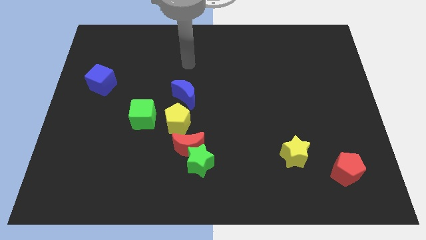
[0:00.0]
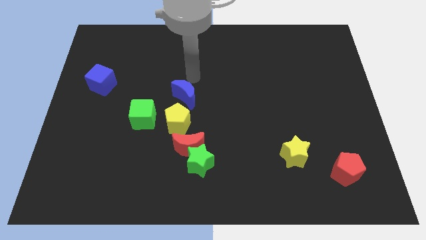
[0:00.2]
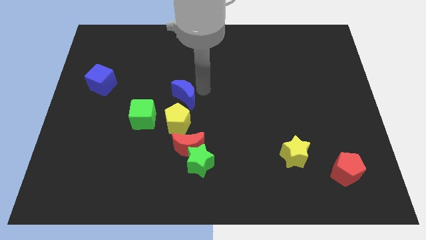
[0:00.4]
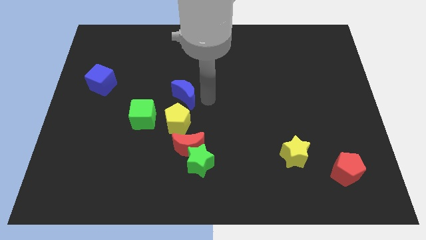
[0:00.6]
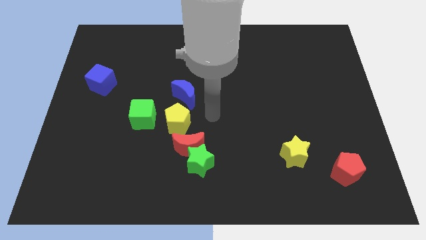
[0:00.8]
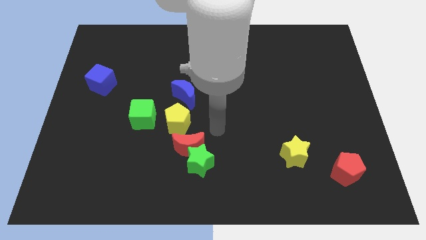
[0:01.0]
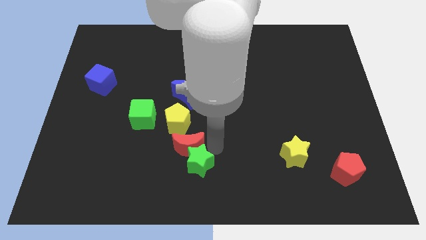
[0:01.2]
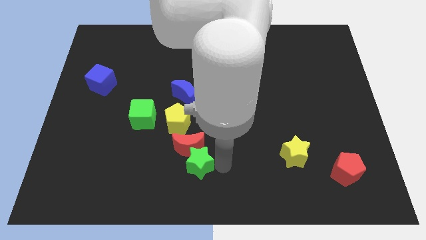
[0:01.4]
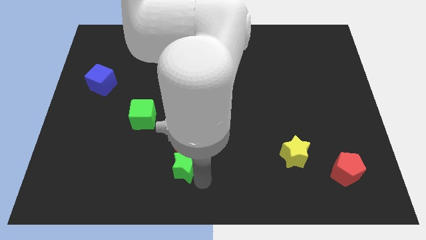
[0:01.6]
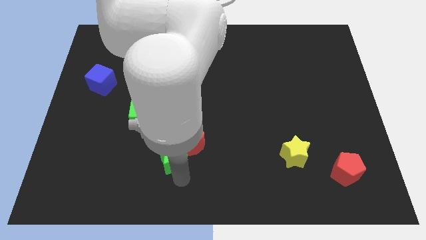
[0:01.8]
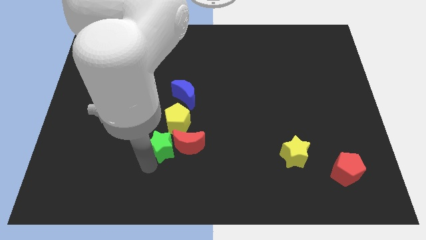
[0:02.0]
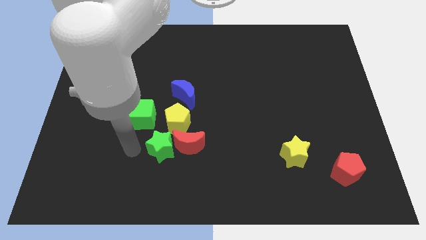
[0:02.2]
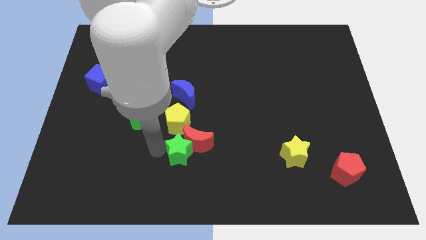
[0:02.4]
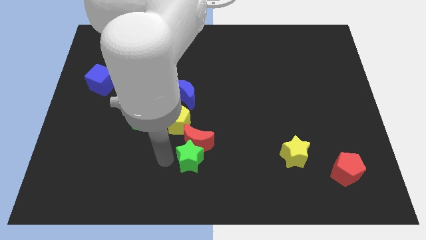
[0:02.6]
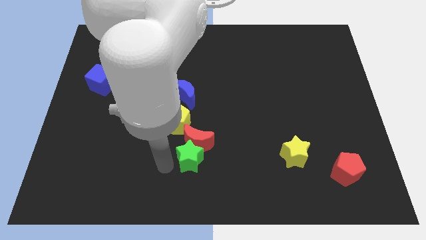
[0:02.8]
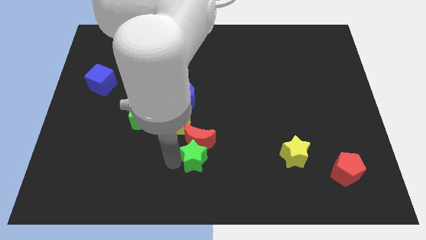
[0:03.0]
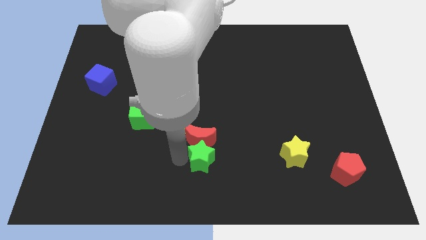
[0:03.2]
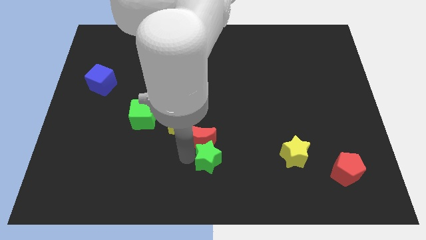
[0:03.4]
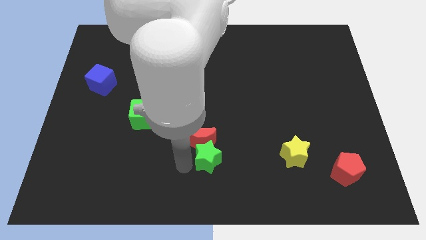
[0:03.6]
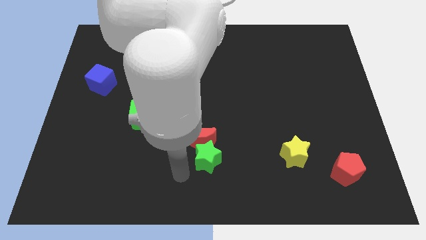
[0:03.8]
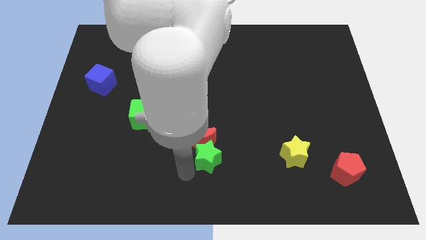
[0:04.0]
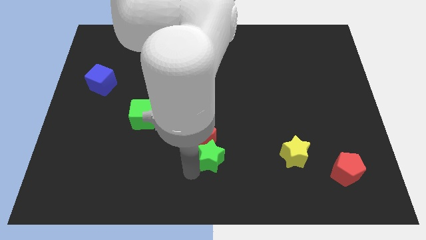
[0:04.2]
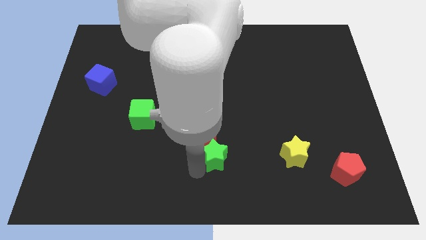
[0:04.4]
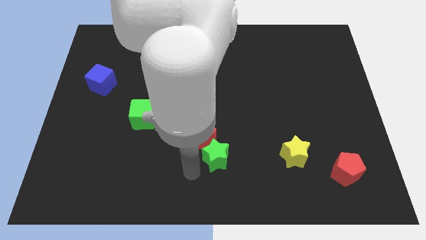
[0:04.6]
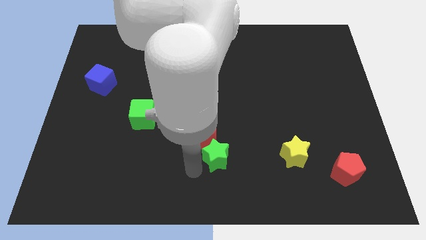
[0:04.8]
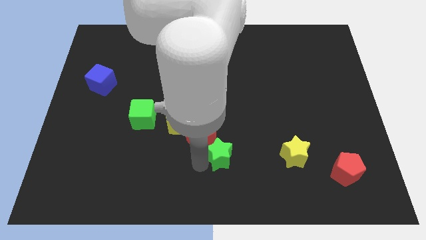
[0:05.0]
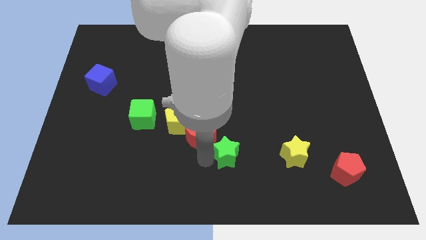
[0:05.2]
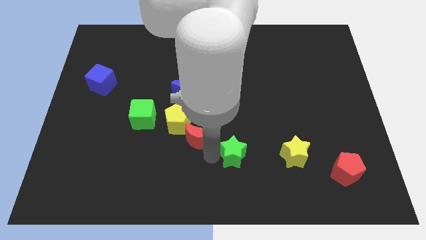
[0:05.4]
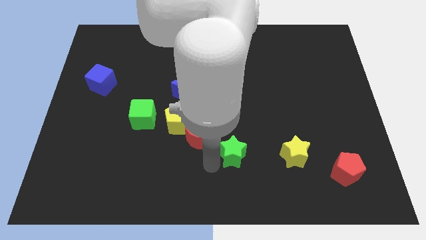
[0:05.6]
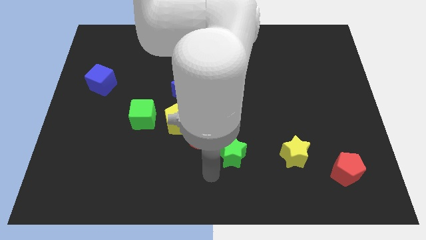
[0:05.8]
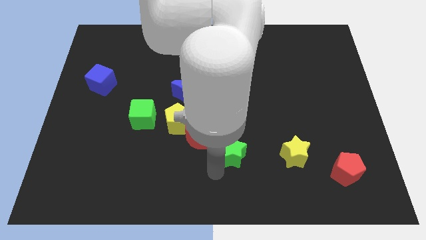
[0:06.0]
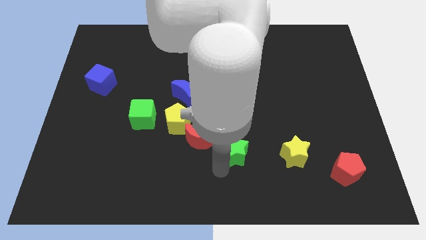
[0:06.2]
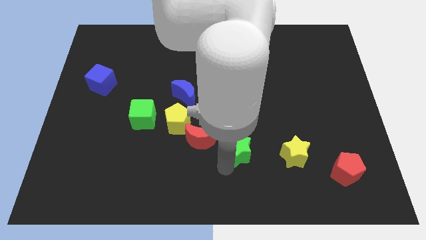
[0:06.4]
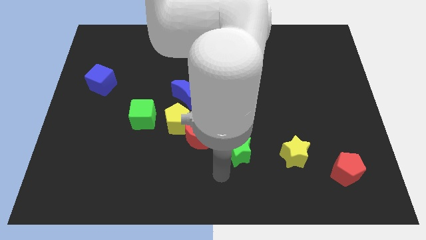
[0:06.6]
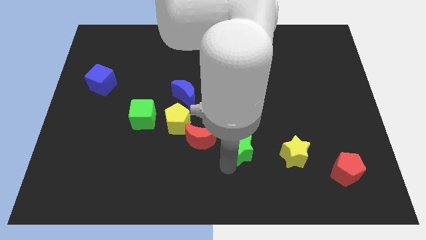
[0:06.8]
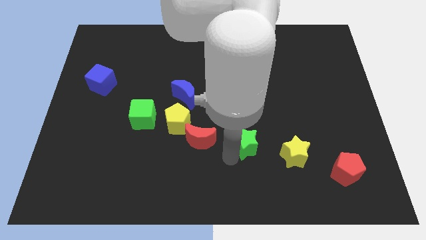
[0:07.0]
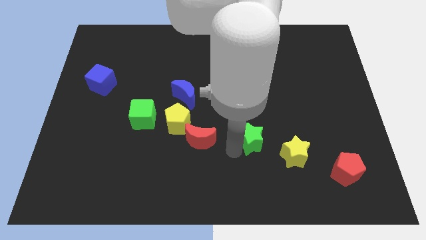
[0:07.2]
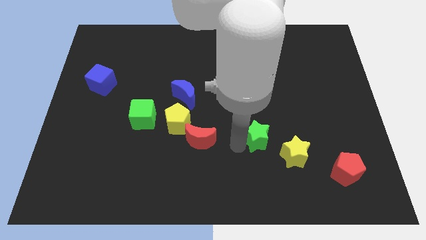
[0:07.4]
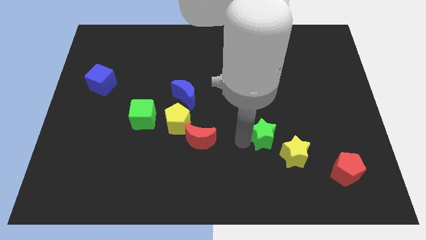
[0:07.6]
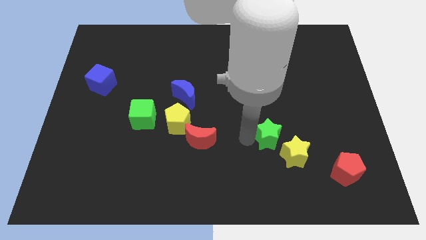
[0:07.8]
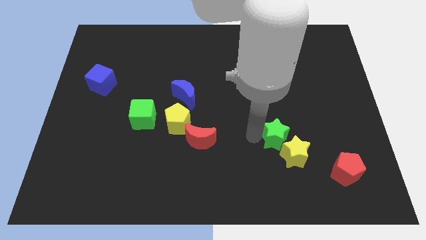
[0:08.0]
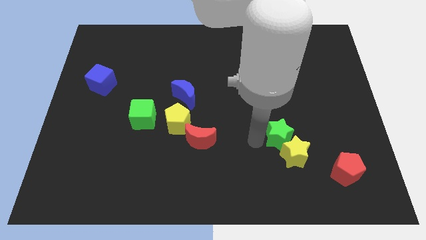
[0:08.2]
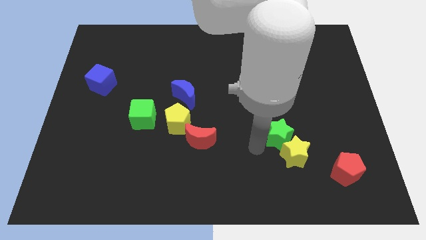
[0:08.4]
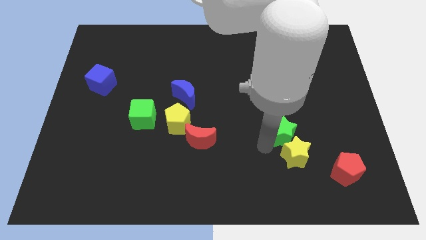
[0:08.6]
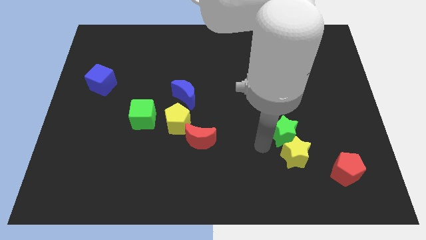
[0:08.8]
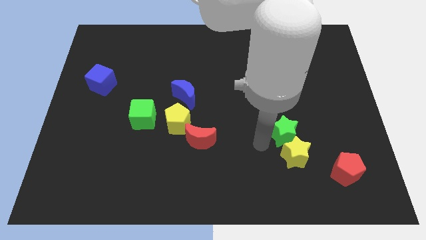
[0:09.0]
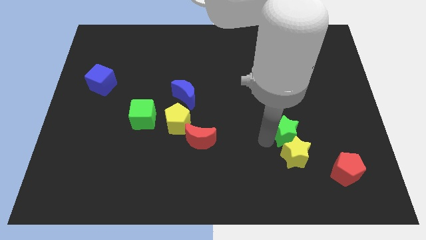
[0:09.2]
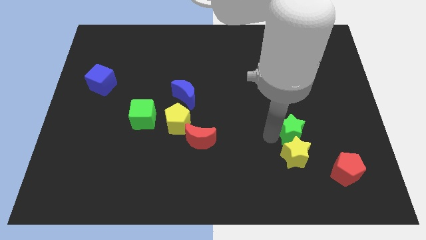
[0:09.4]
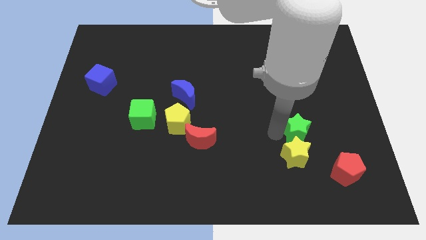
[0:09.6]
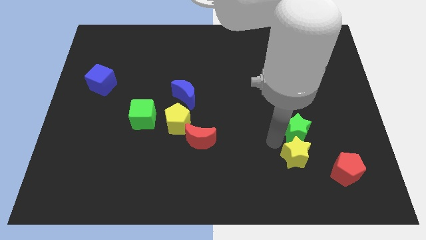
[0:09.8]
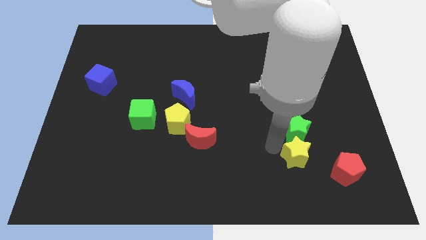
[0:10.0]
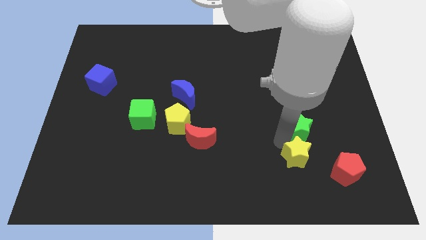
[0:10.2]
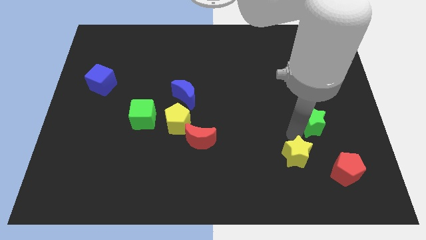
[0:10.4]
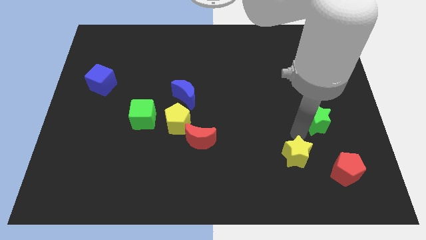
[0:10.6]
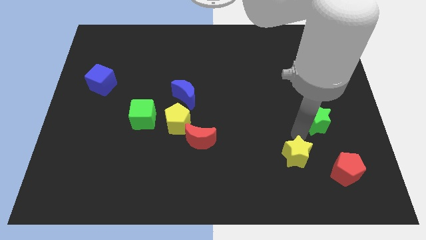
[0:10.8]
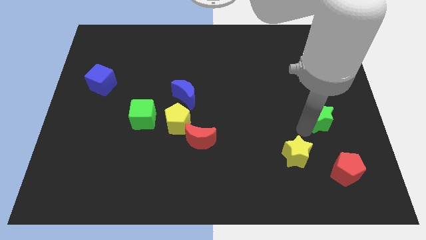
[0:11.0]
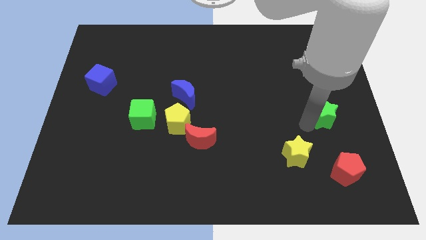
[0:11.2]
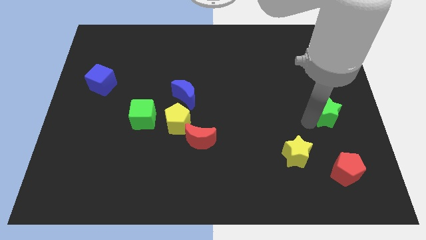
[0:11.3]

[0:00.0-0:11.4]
move the green star to the right side

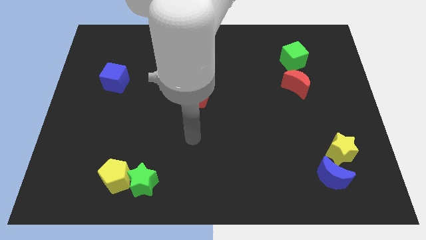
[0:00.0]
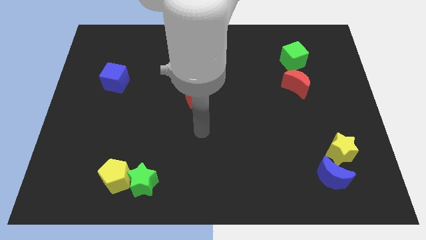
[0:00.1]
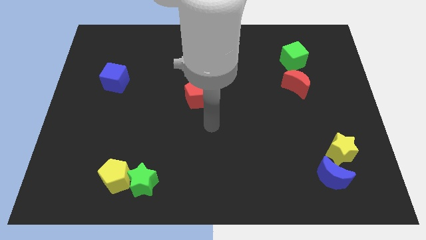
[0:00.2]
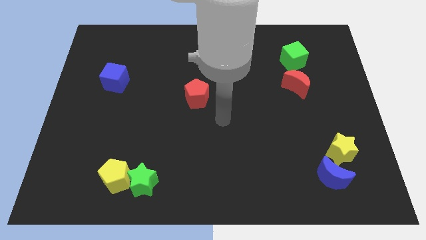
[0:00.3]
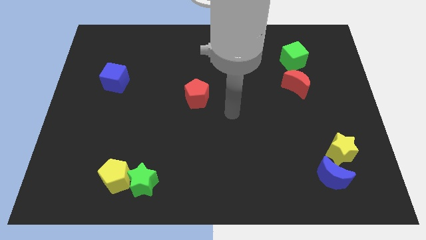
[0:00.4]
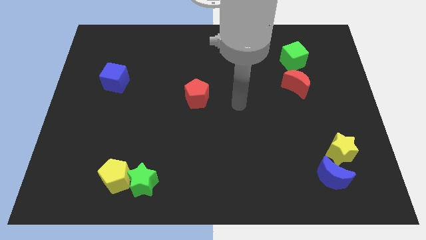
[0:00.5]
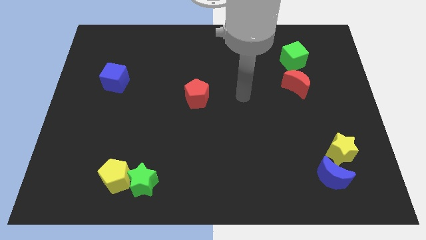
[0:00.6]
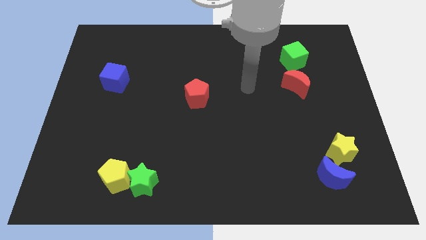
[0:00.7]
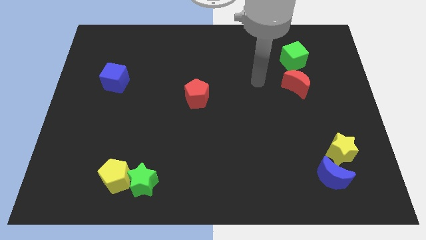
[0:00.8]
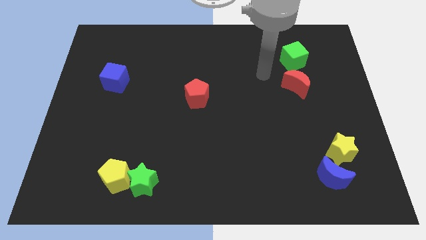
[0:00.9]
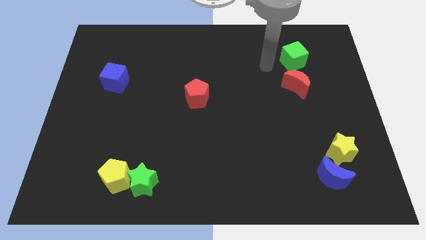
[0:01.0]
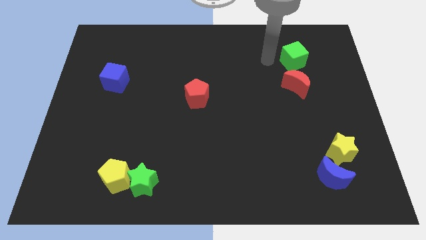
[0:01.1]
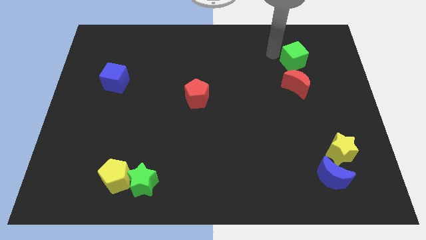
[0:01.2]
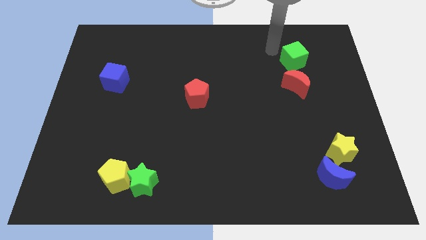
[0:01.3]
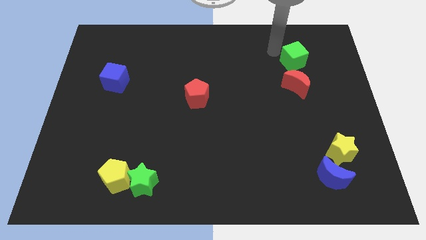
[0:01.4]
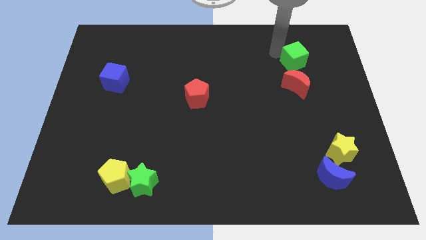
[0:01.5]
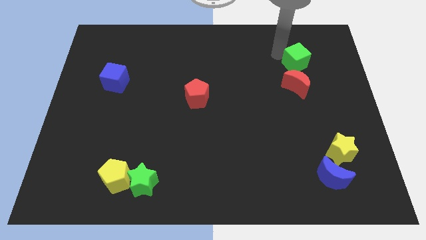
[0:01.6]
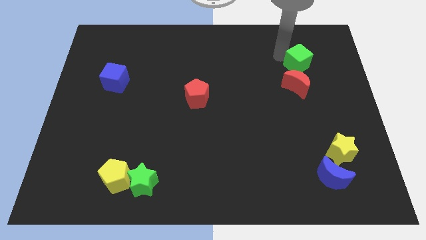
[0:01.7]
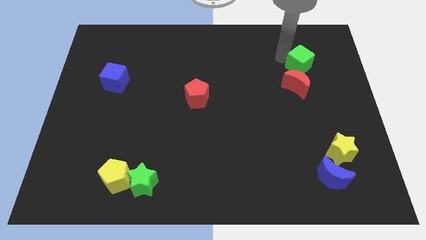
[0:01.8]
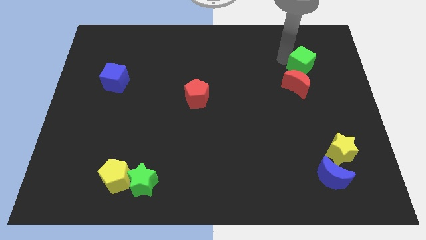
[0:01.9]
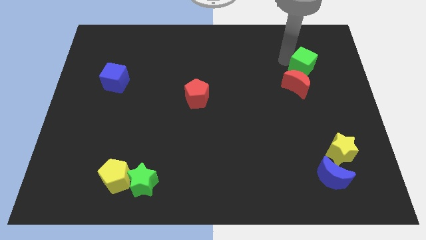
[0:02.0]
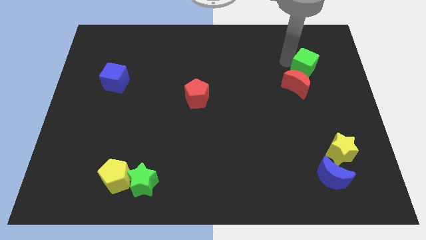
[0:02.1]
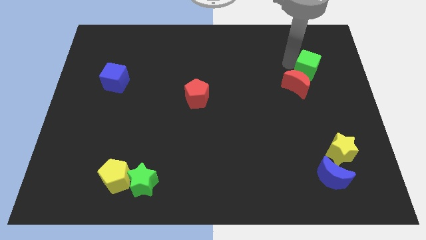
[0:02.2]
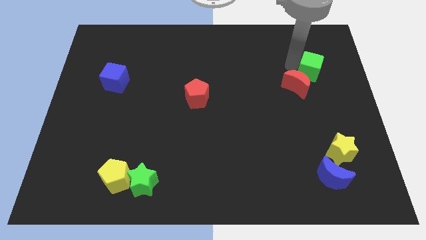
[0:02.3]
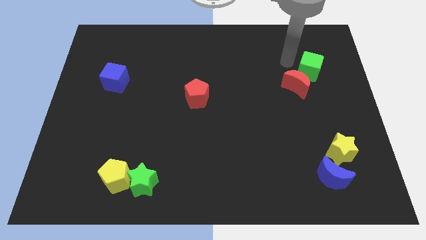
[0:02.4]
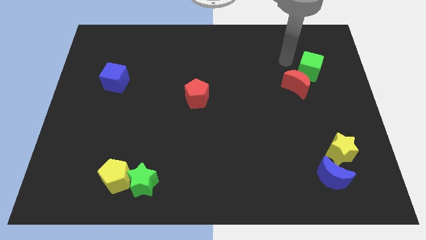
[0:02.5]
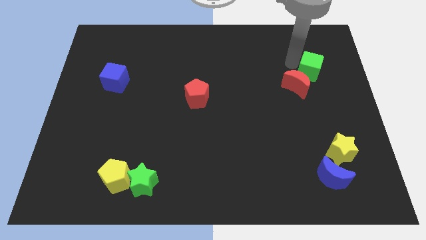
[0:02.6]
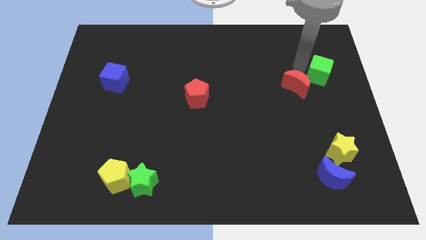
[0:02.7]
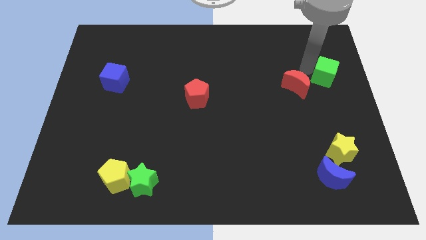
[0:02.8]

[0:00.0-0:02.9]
move the green cube to the right side of the board
